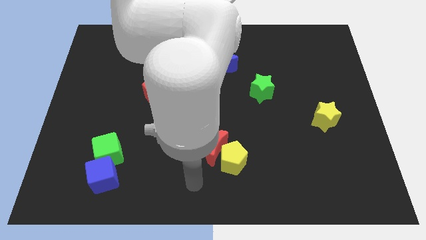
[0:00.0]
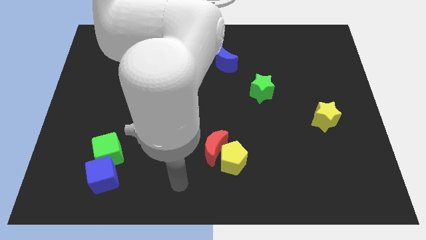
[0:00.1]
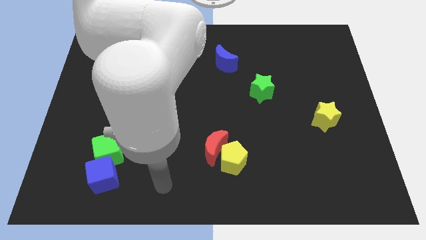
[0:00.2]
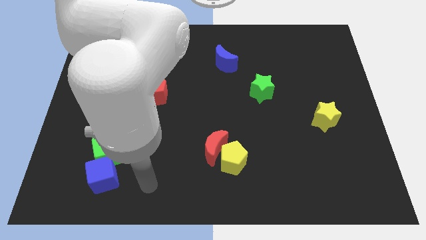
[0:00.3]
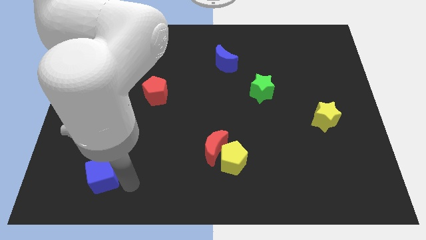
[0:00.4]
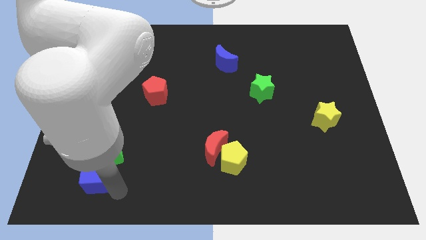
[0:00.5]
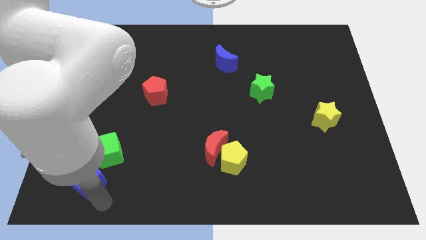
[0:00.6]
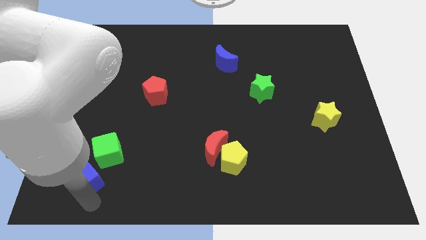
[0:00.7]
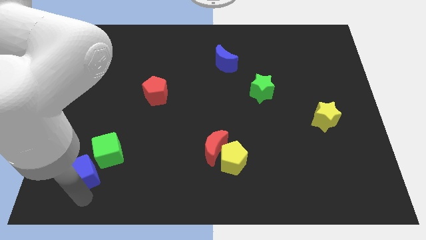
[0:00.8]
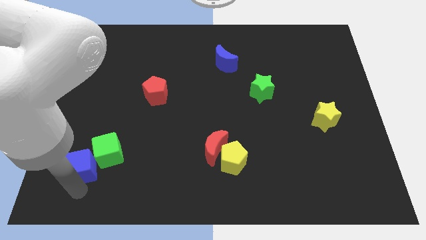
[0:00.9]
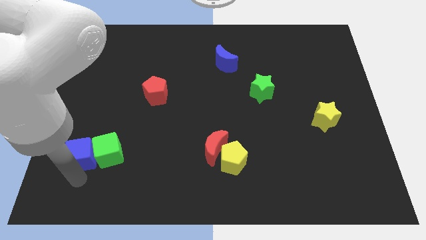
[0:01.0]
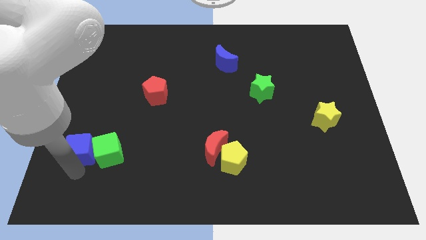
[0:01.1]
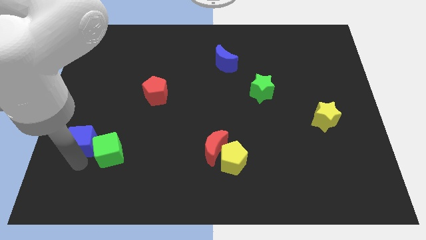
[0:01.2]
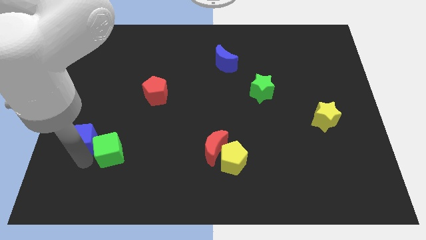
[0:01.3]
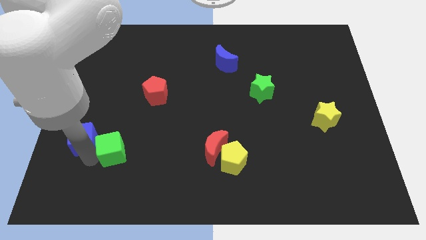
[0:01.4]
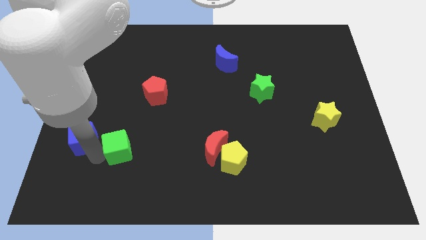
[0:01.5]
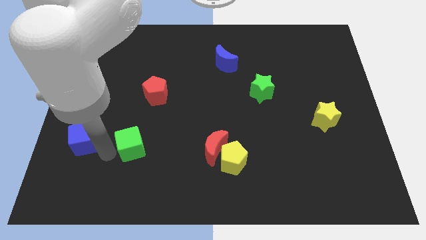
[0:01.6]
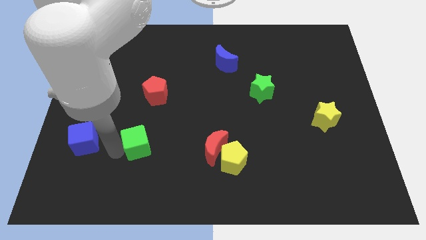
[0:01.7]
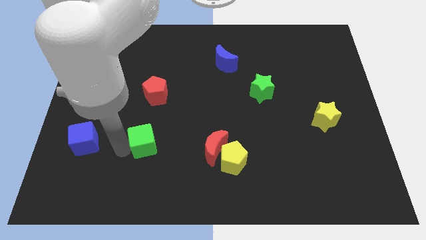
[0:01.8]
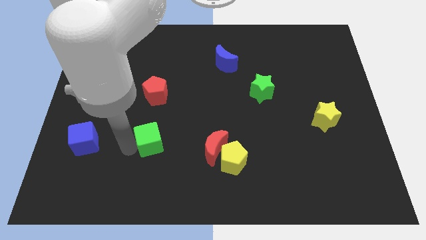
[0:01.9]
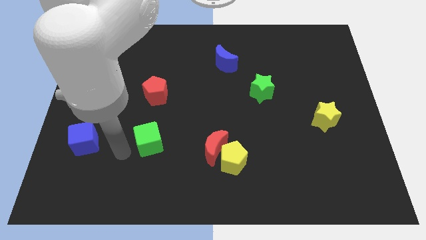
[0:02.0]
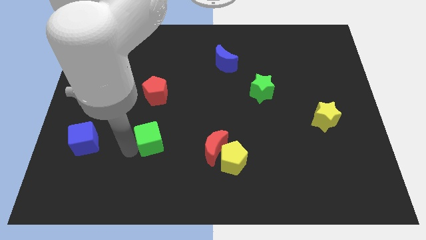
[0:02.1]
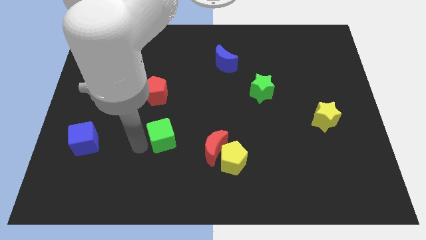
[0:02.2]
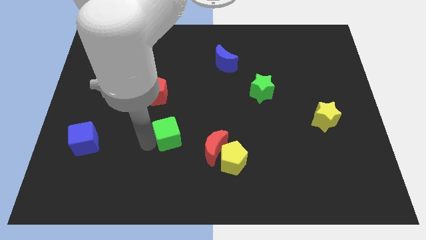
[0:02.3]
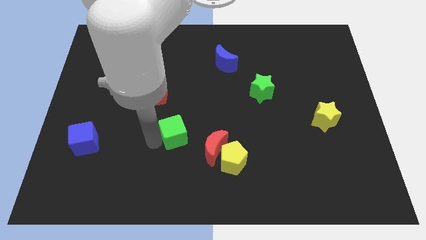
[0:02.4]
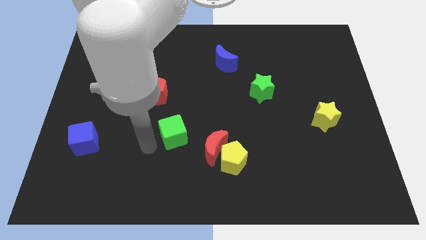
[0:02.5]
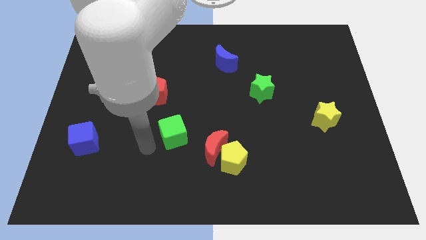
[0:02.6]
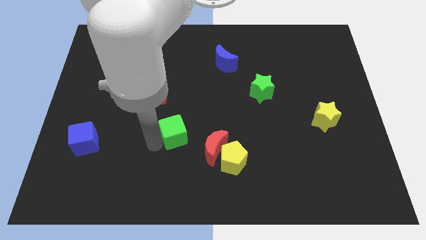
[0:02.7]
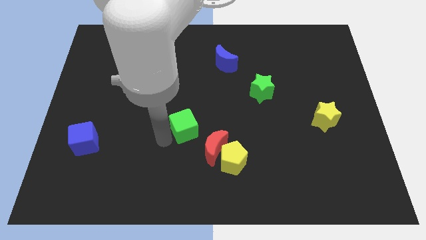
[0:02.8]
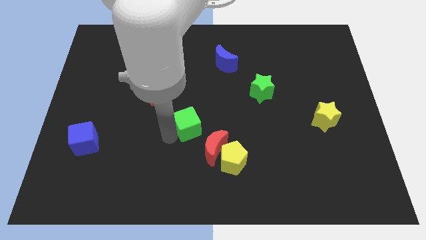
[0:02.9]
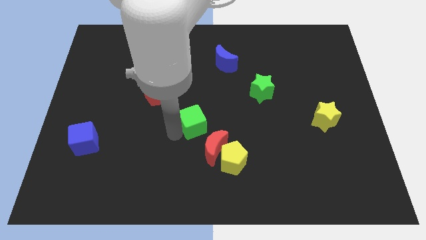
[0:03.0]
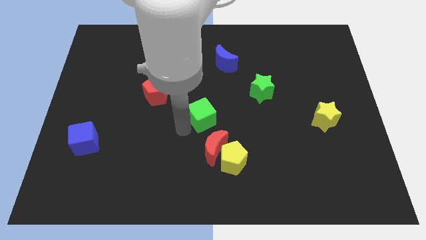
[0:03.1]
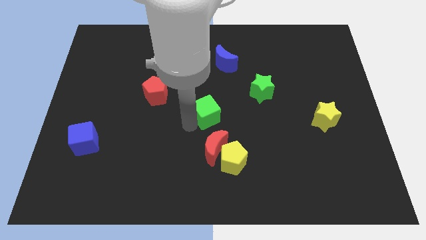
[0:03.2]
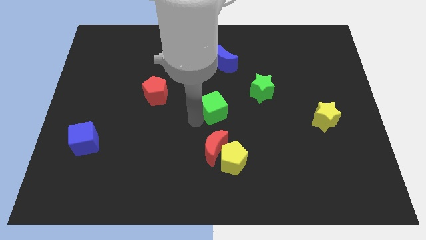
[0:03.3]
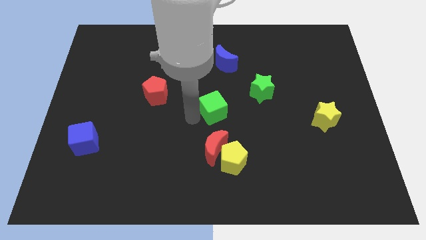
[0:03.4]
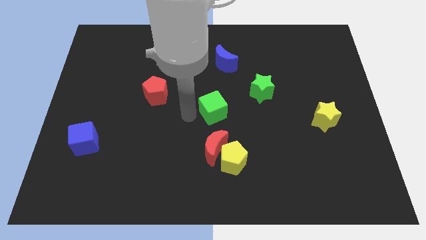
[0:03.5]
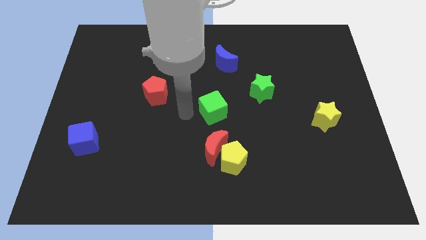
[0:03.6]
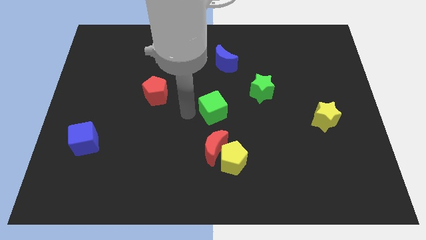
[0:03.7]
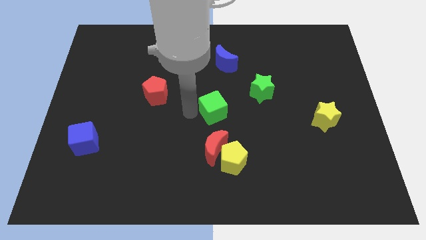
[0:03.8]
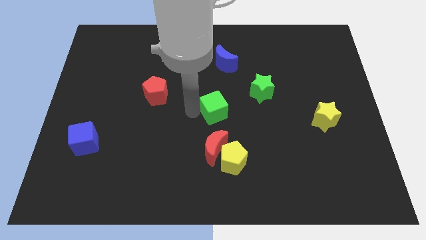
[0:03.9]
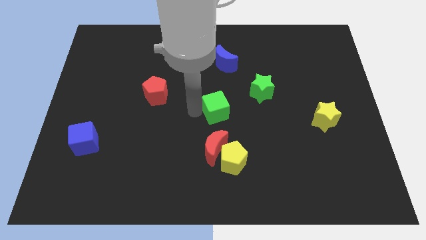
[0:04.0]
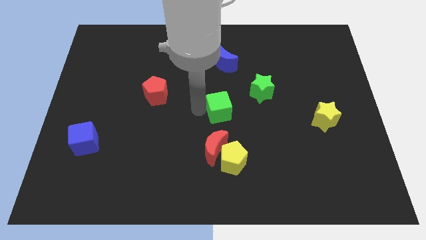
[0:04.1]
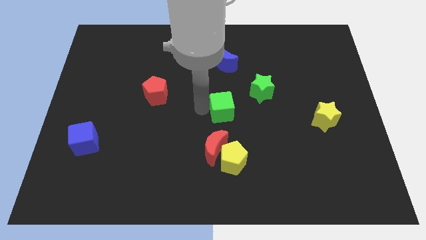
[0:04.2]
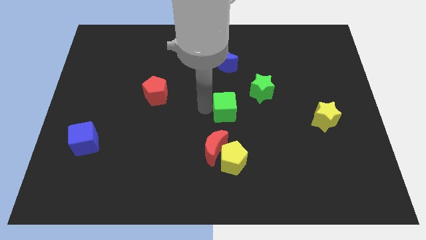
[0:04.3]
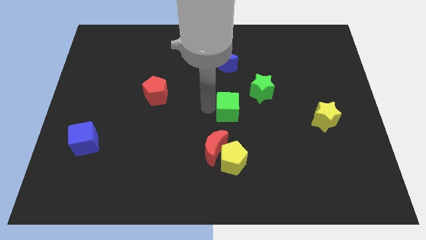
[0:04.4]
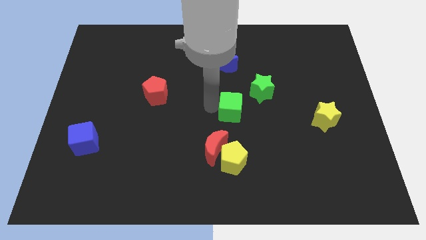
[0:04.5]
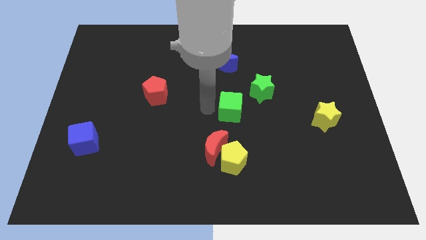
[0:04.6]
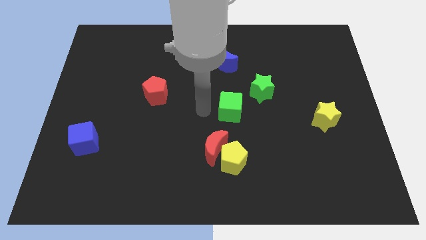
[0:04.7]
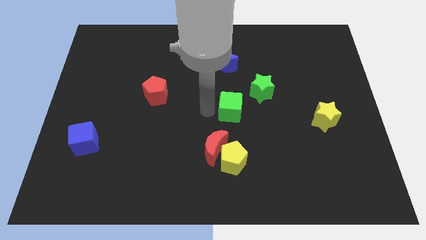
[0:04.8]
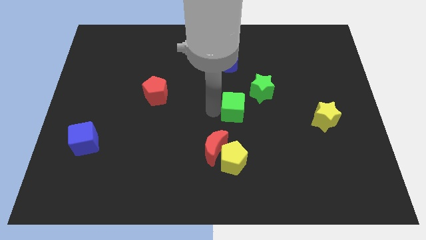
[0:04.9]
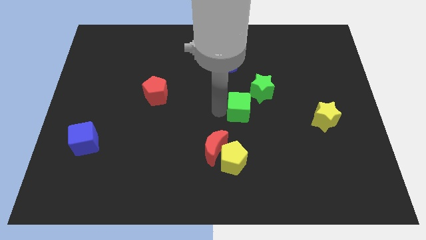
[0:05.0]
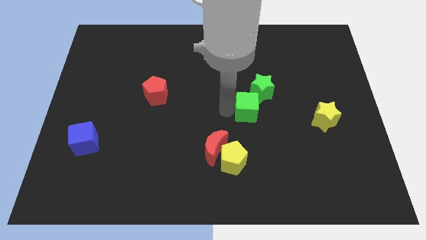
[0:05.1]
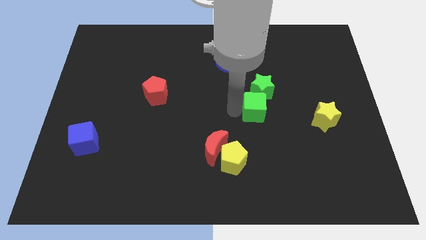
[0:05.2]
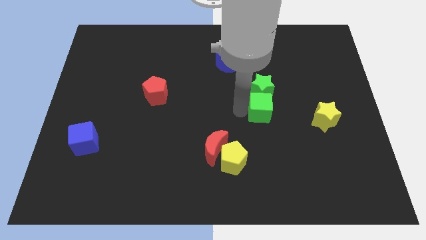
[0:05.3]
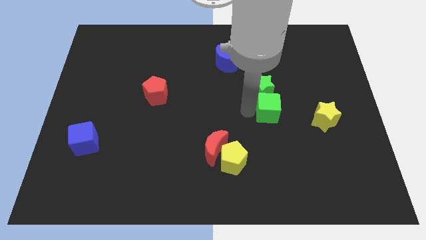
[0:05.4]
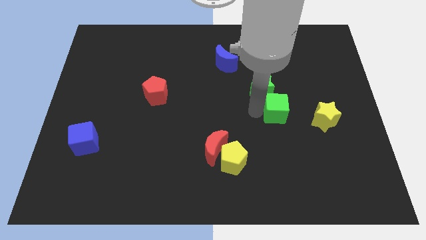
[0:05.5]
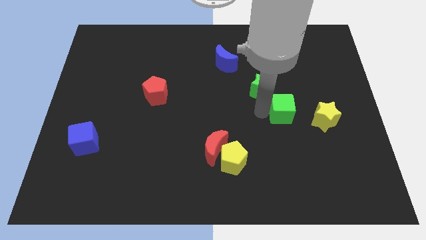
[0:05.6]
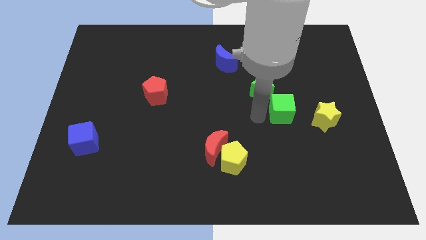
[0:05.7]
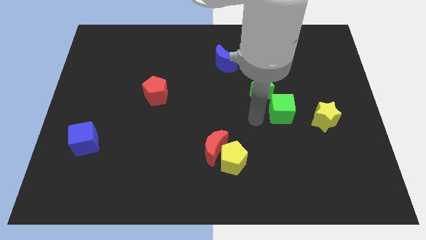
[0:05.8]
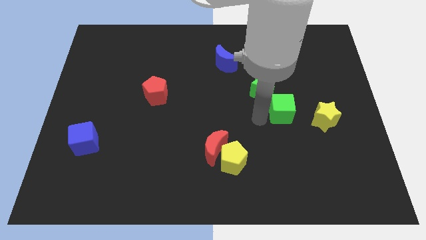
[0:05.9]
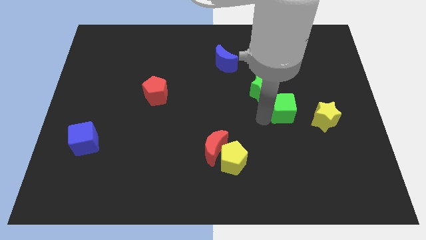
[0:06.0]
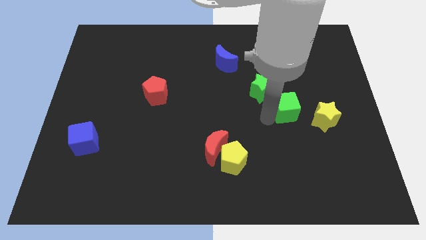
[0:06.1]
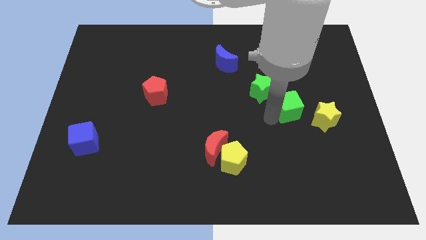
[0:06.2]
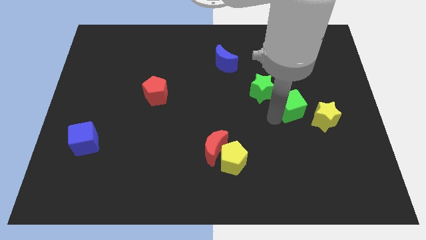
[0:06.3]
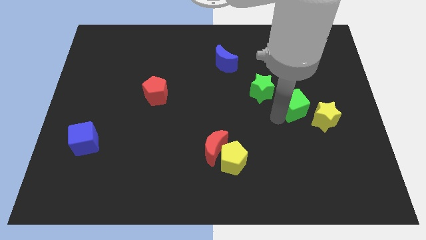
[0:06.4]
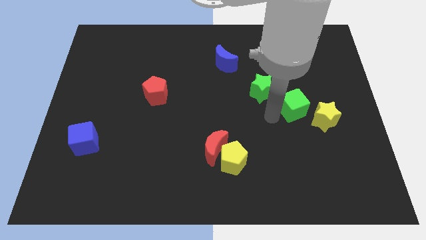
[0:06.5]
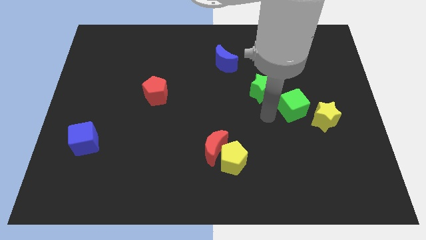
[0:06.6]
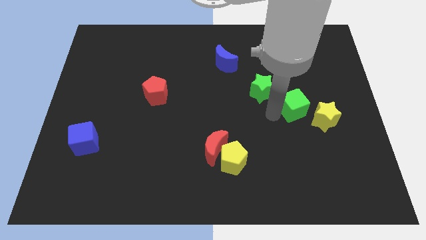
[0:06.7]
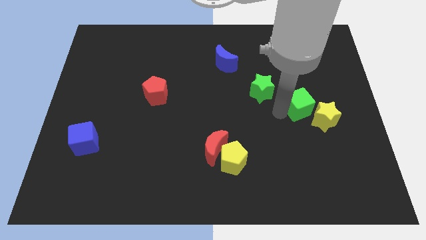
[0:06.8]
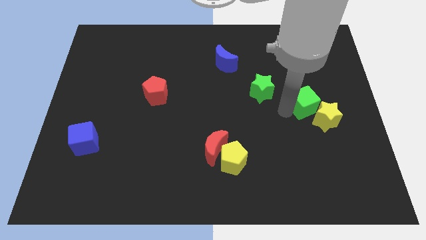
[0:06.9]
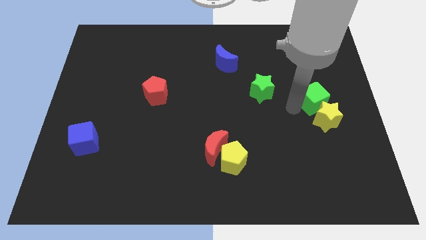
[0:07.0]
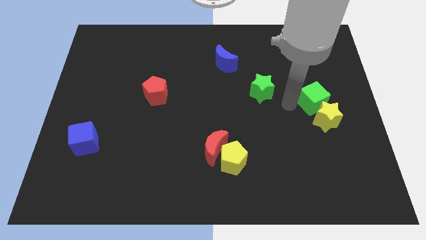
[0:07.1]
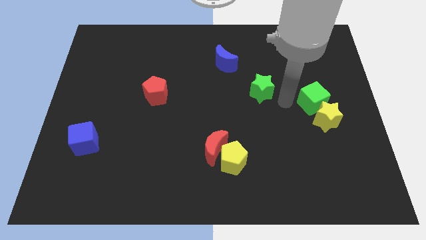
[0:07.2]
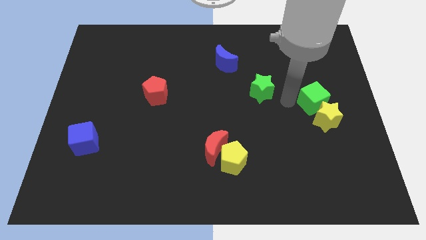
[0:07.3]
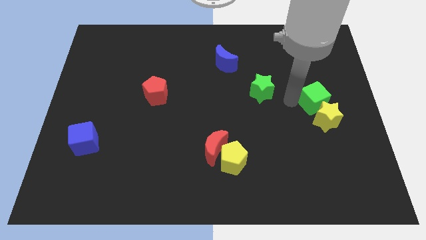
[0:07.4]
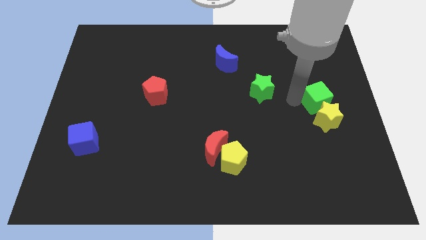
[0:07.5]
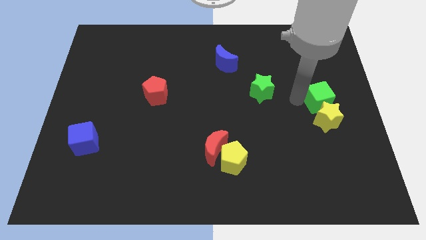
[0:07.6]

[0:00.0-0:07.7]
move the green cube to the right side of the board
